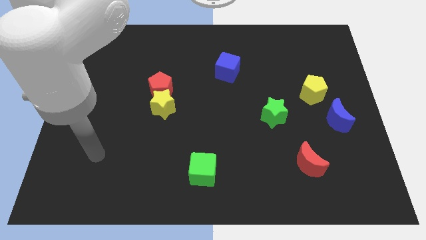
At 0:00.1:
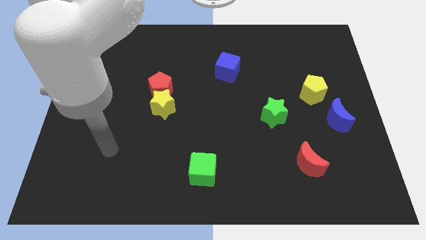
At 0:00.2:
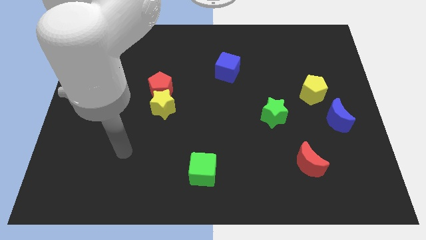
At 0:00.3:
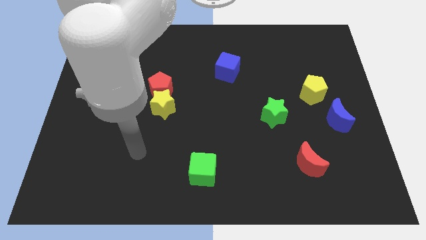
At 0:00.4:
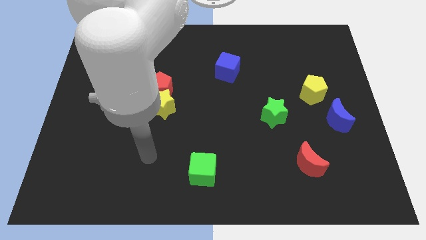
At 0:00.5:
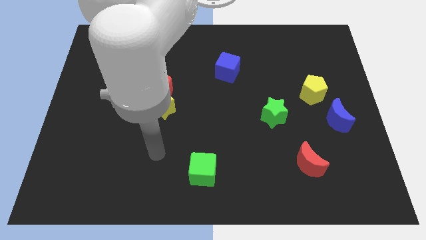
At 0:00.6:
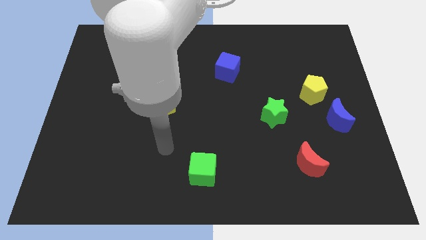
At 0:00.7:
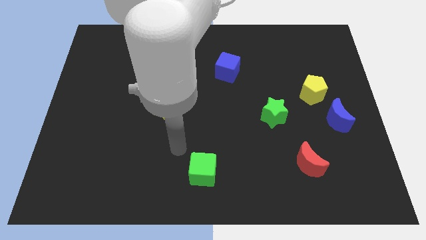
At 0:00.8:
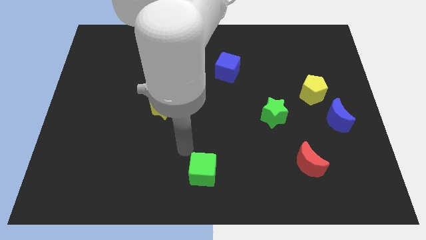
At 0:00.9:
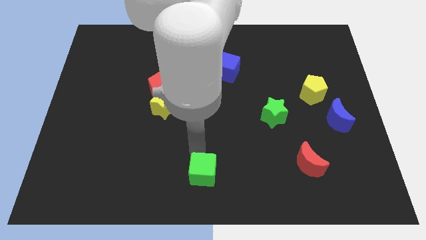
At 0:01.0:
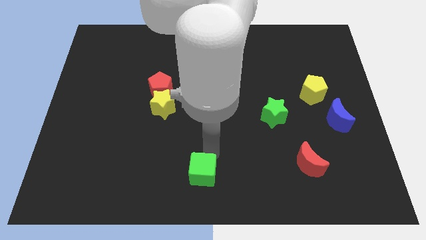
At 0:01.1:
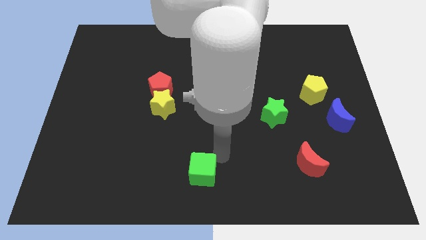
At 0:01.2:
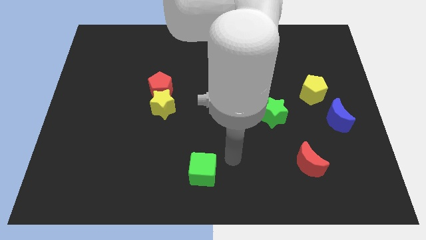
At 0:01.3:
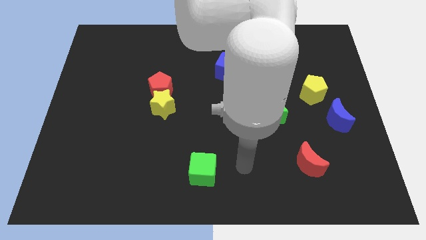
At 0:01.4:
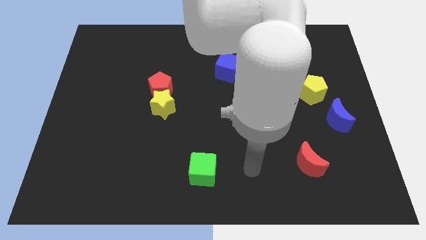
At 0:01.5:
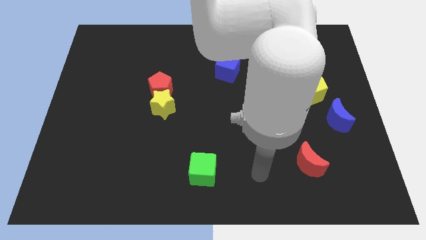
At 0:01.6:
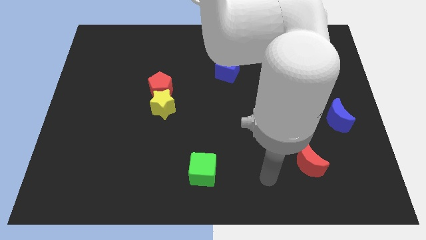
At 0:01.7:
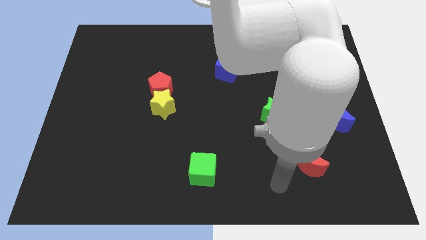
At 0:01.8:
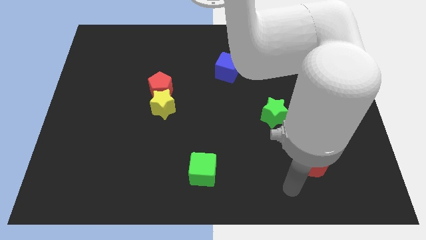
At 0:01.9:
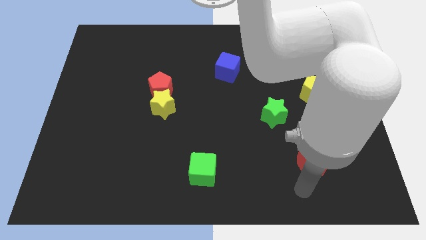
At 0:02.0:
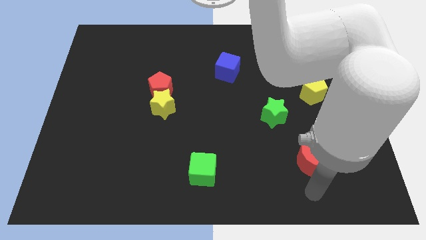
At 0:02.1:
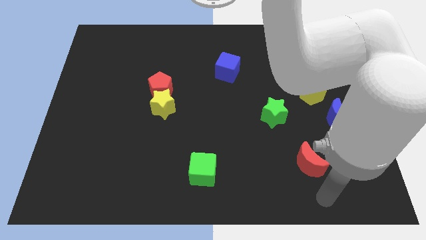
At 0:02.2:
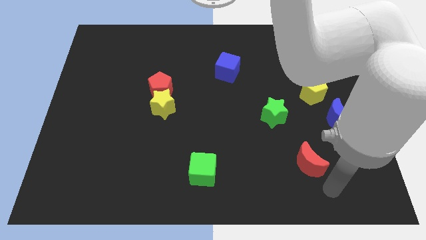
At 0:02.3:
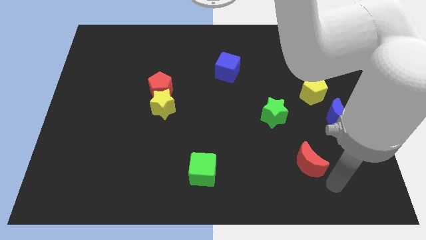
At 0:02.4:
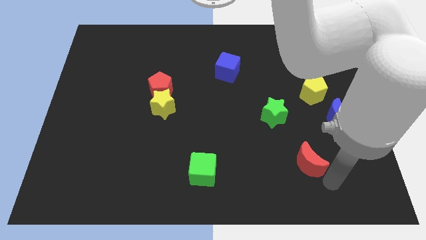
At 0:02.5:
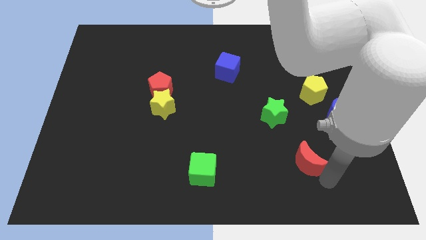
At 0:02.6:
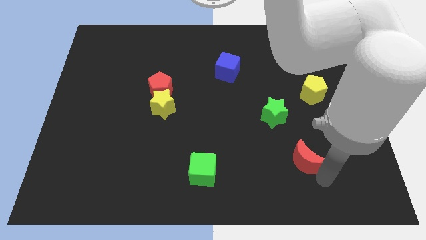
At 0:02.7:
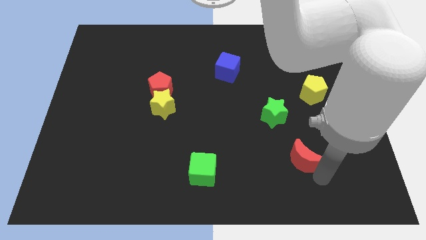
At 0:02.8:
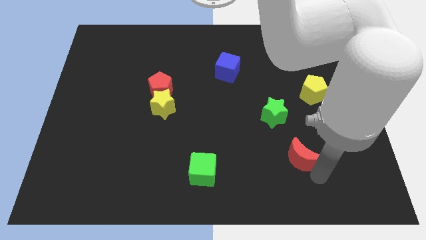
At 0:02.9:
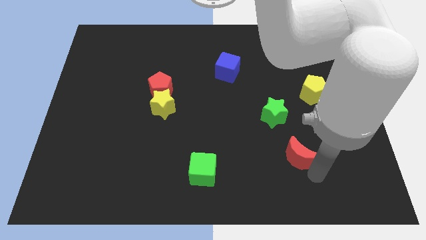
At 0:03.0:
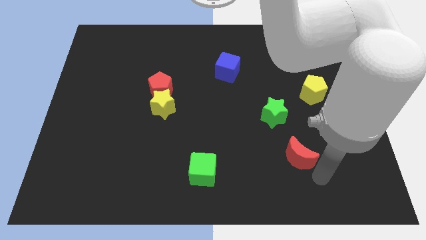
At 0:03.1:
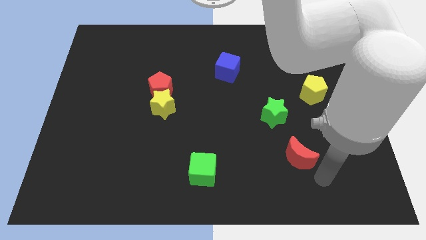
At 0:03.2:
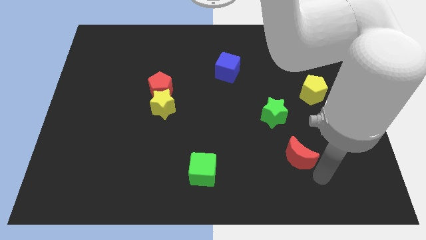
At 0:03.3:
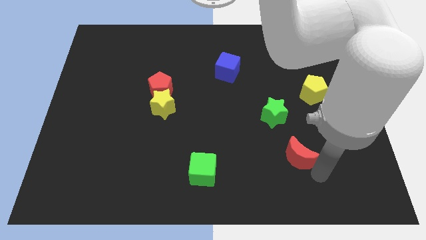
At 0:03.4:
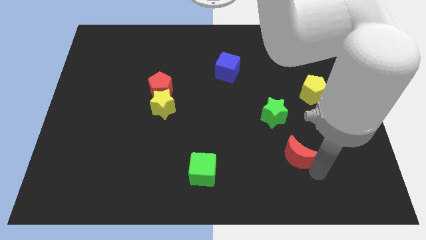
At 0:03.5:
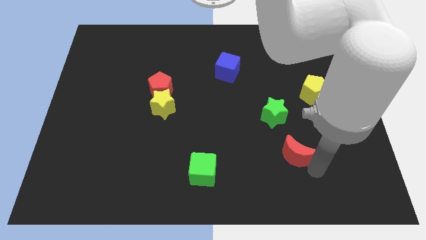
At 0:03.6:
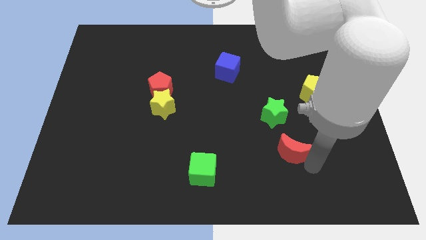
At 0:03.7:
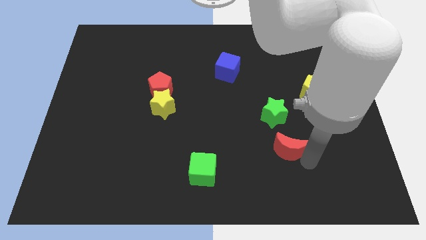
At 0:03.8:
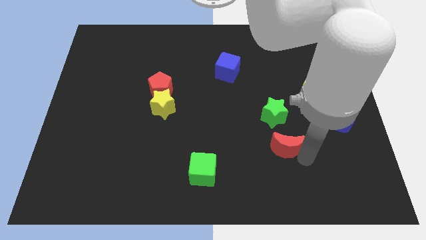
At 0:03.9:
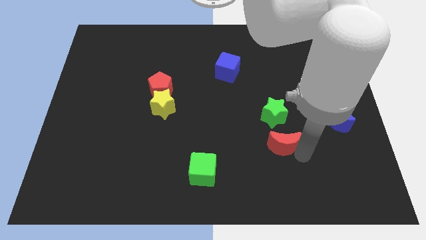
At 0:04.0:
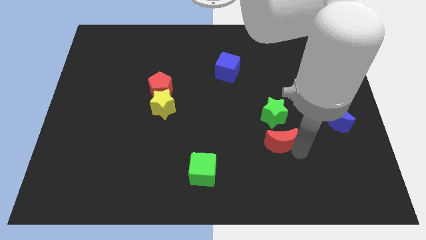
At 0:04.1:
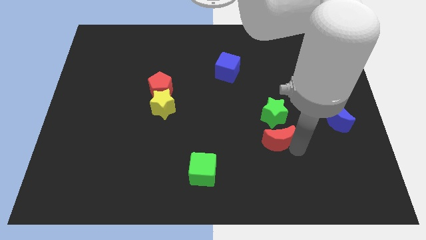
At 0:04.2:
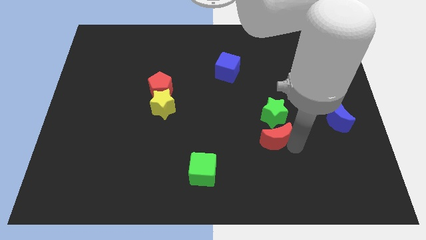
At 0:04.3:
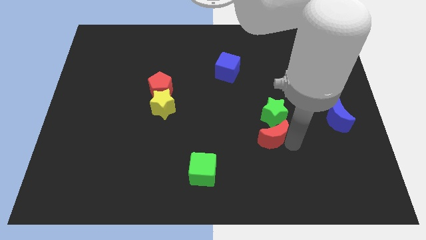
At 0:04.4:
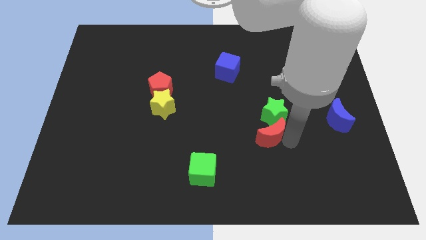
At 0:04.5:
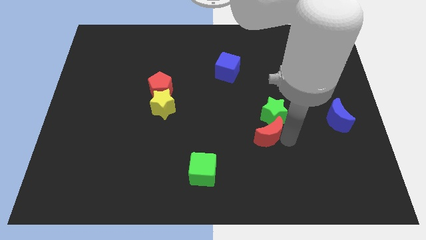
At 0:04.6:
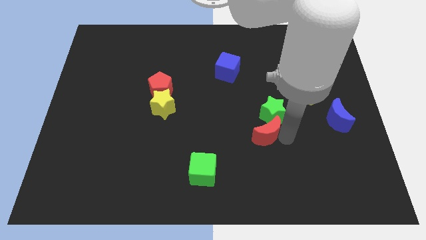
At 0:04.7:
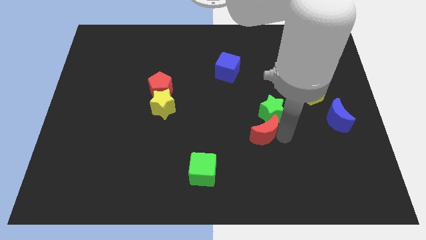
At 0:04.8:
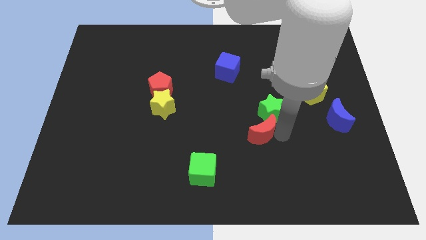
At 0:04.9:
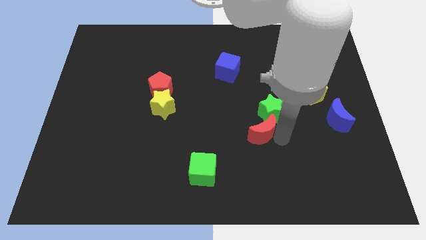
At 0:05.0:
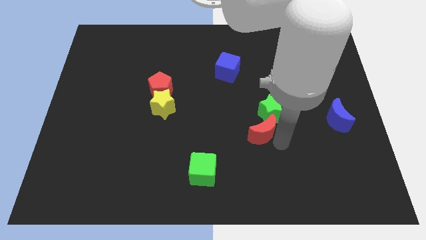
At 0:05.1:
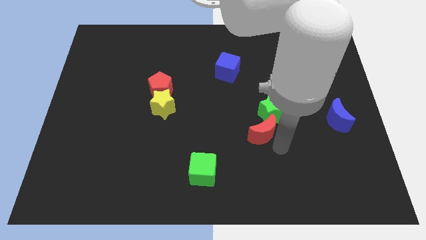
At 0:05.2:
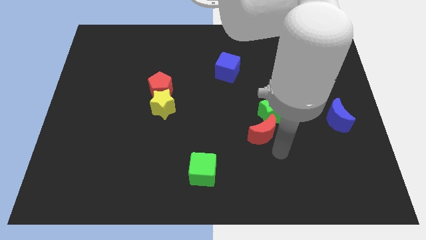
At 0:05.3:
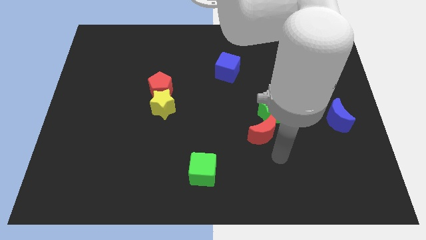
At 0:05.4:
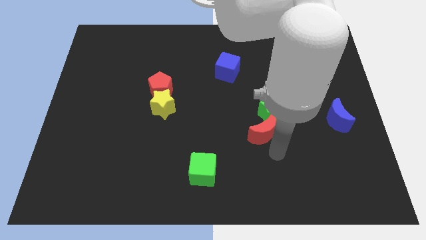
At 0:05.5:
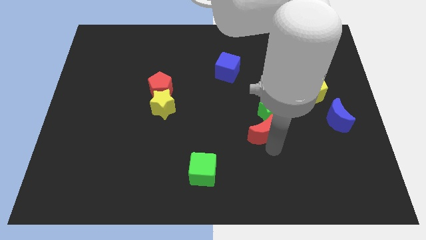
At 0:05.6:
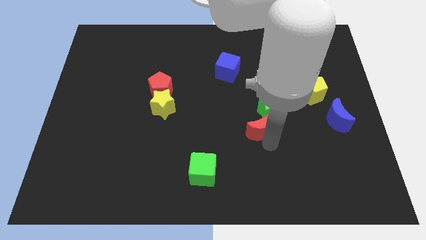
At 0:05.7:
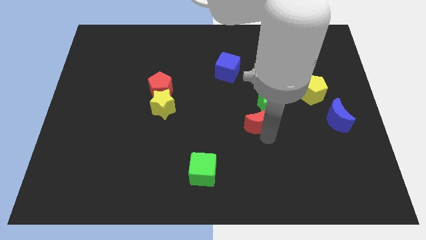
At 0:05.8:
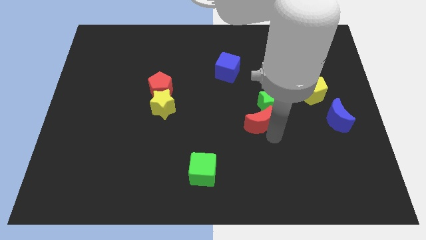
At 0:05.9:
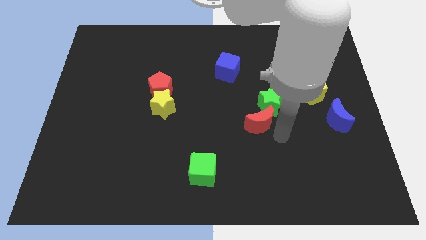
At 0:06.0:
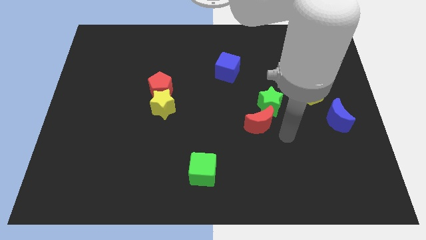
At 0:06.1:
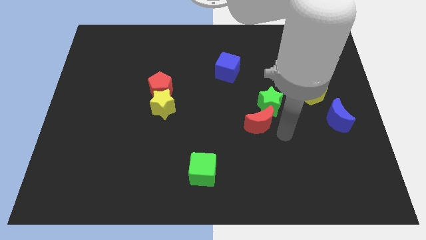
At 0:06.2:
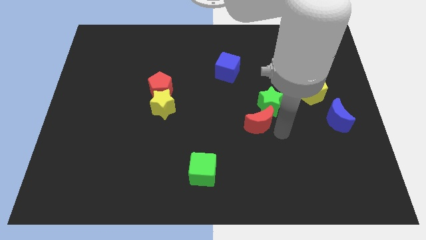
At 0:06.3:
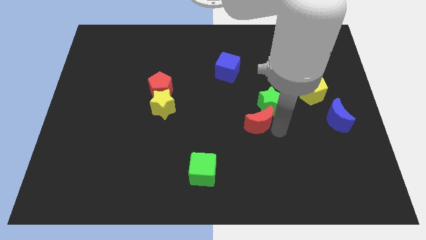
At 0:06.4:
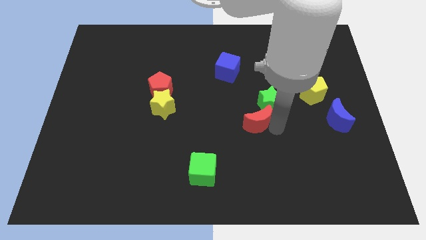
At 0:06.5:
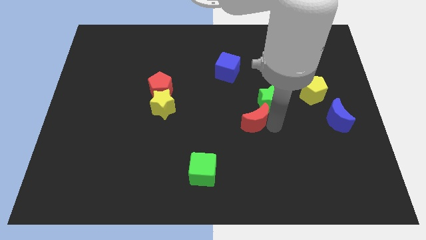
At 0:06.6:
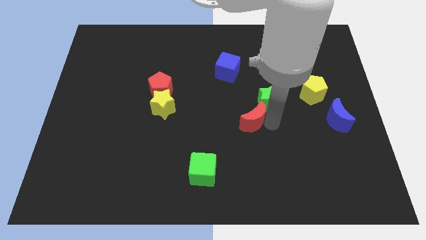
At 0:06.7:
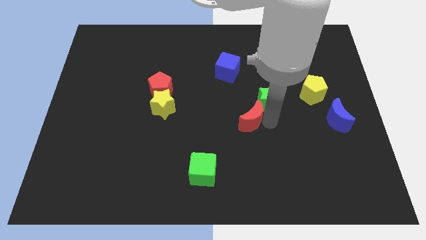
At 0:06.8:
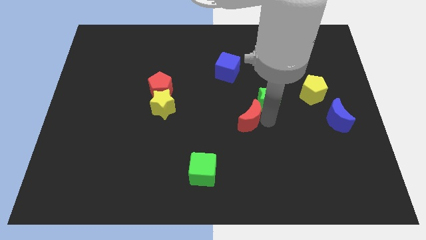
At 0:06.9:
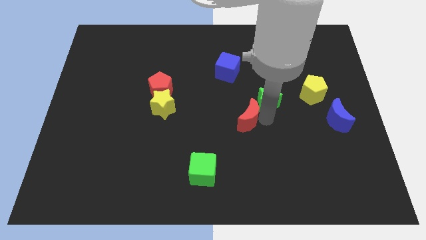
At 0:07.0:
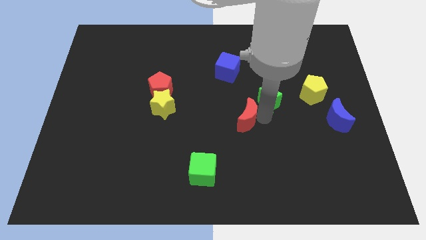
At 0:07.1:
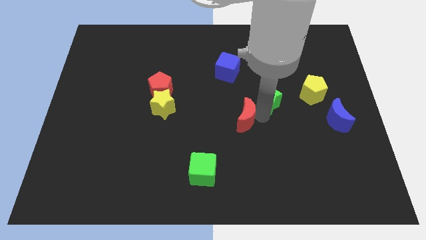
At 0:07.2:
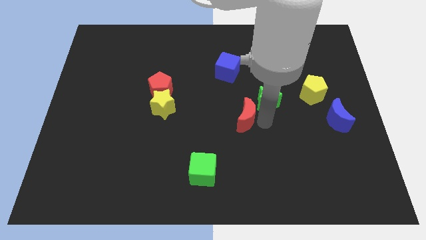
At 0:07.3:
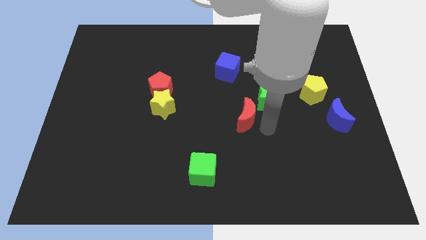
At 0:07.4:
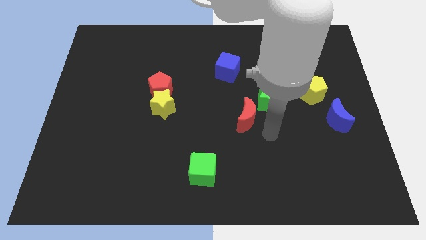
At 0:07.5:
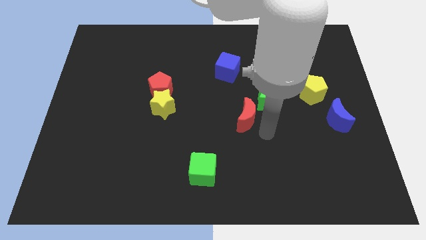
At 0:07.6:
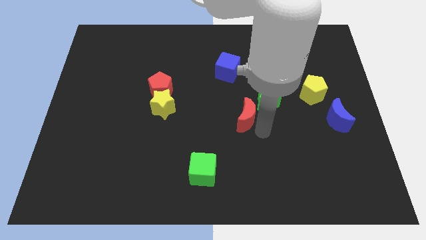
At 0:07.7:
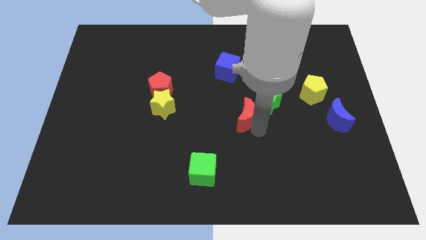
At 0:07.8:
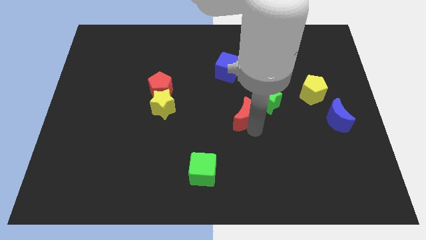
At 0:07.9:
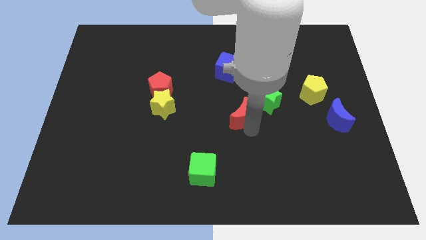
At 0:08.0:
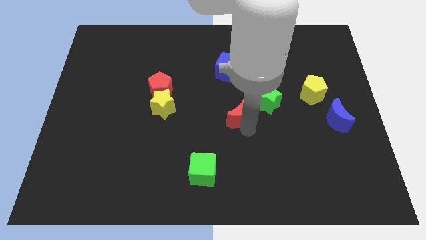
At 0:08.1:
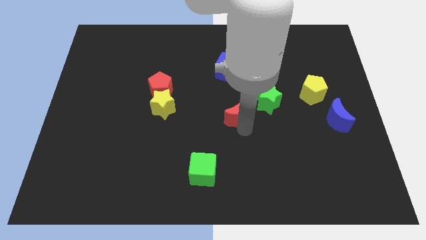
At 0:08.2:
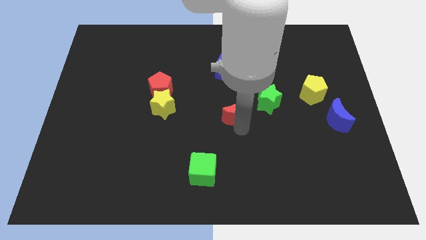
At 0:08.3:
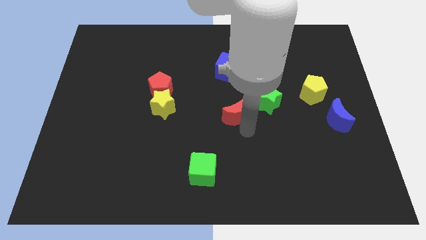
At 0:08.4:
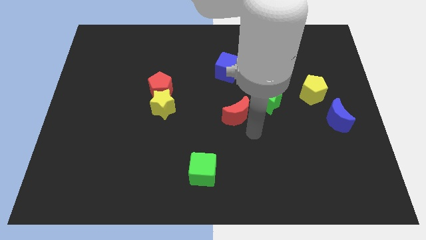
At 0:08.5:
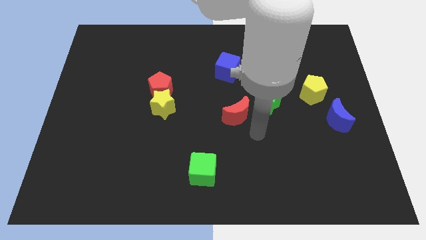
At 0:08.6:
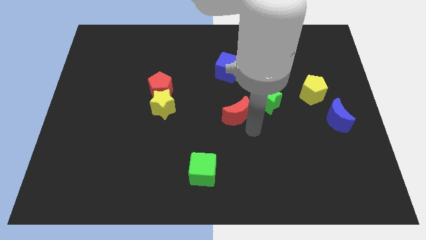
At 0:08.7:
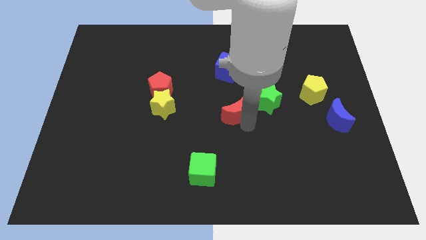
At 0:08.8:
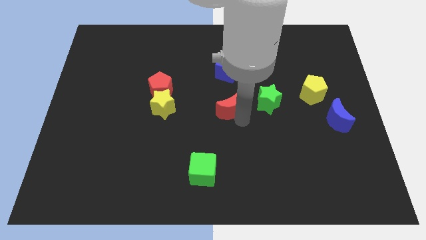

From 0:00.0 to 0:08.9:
slide the red moon upwards and left
